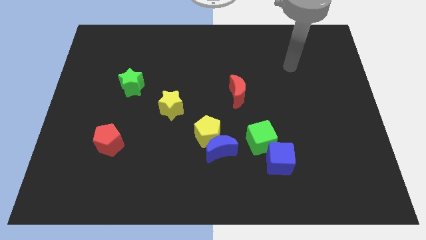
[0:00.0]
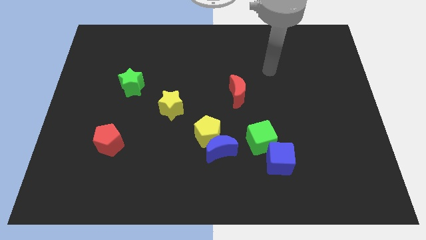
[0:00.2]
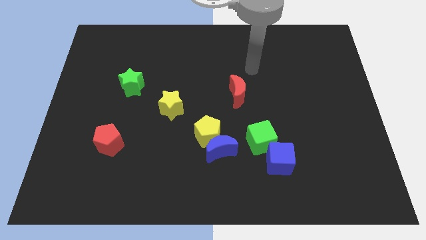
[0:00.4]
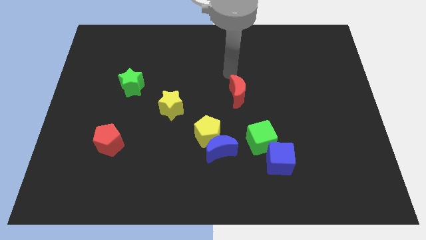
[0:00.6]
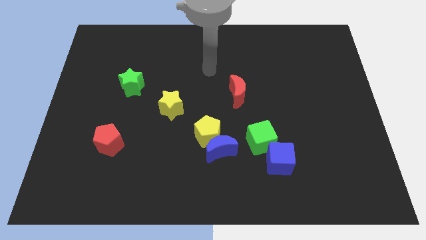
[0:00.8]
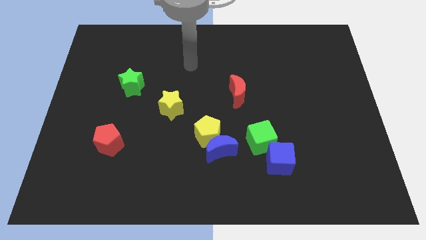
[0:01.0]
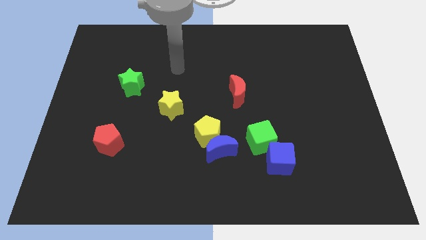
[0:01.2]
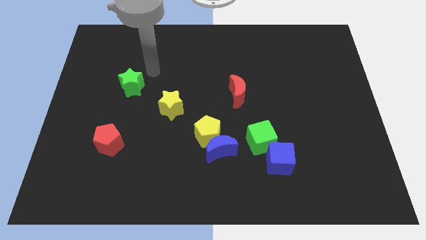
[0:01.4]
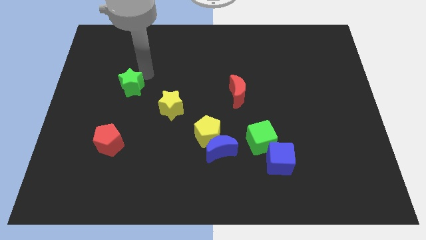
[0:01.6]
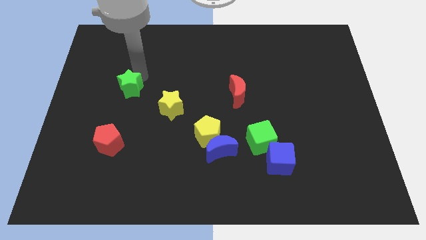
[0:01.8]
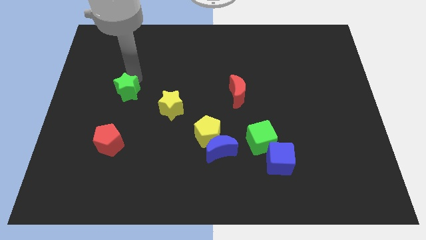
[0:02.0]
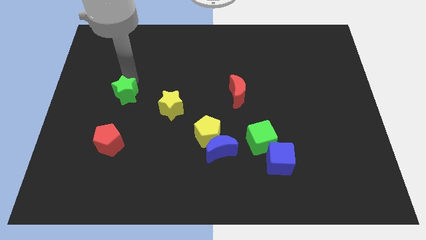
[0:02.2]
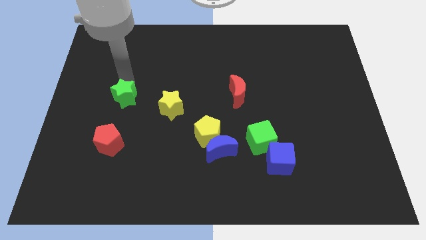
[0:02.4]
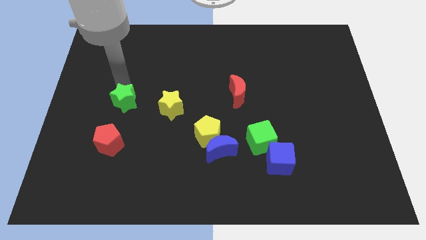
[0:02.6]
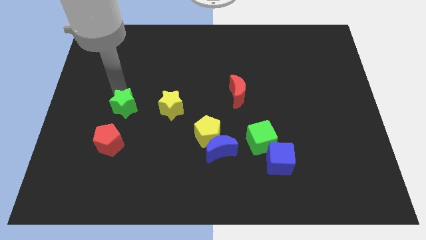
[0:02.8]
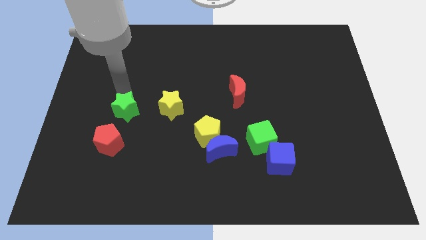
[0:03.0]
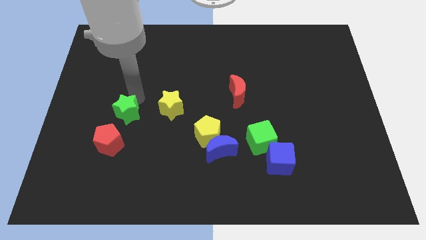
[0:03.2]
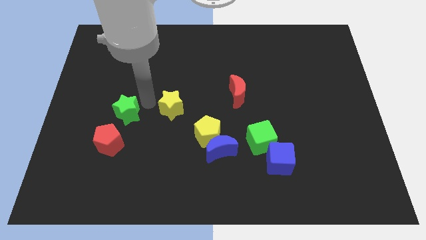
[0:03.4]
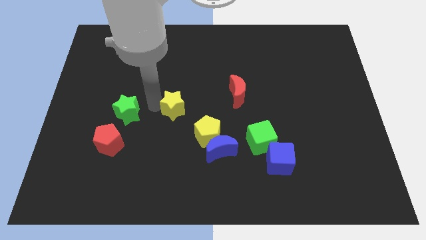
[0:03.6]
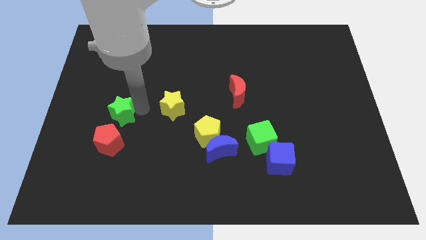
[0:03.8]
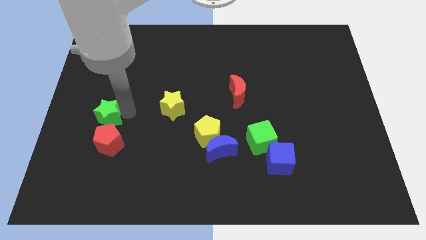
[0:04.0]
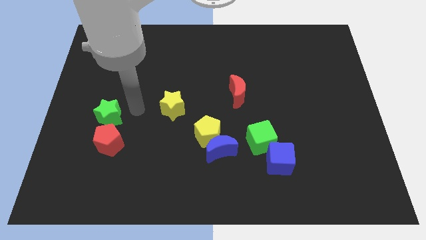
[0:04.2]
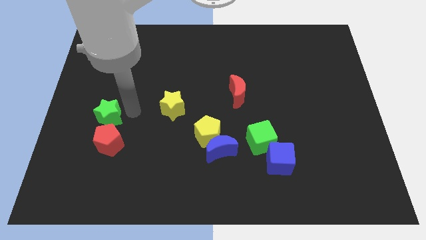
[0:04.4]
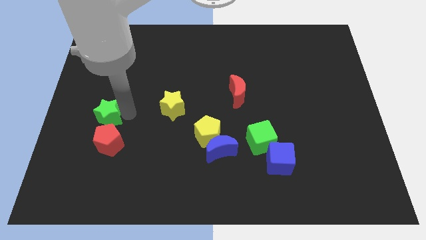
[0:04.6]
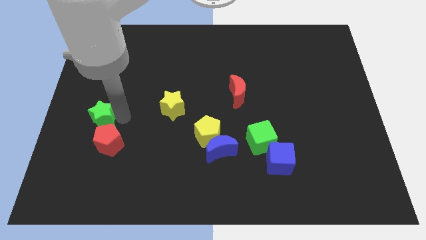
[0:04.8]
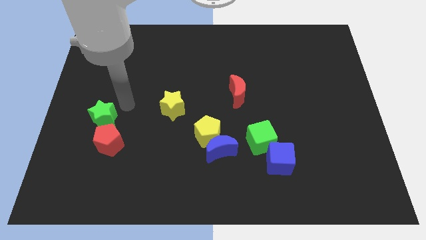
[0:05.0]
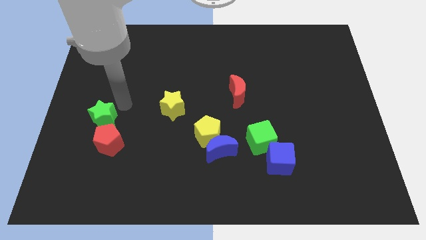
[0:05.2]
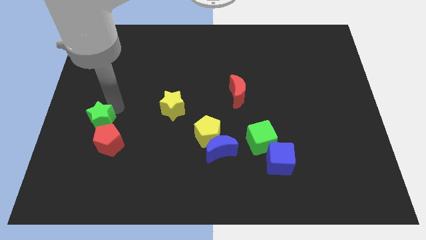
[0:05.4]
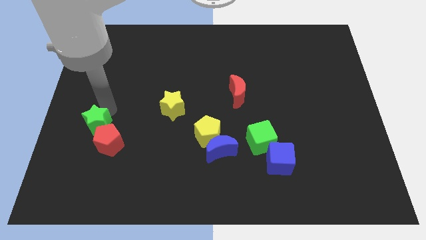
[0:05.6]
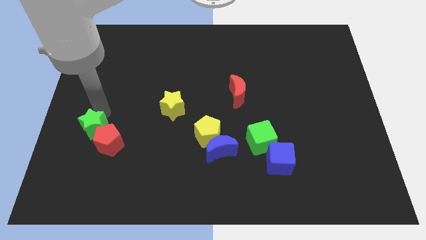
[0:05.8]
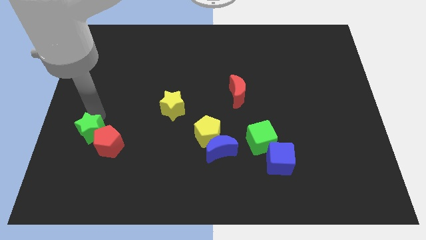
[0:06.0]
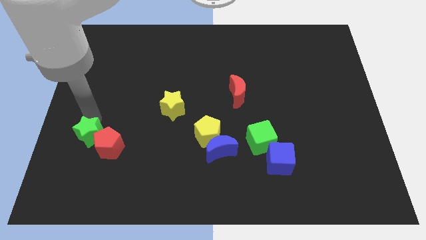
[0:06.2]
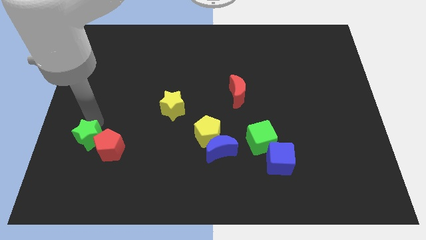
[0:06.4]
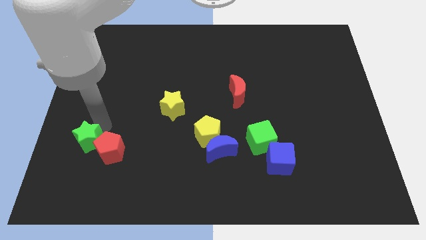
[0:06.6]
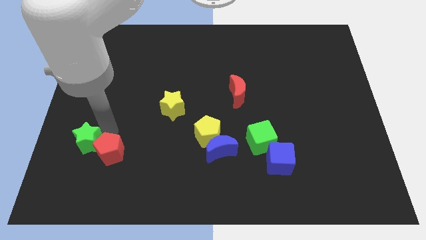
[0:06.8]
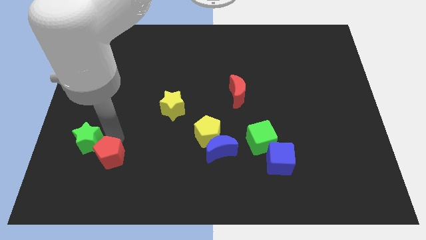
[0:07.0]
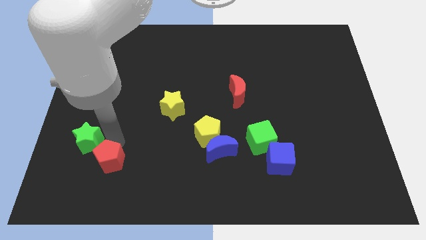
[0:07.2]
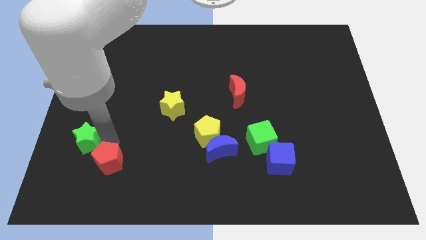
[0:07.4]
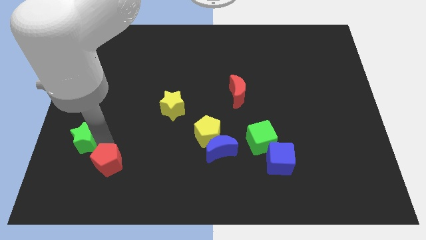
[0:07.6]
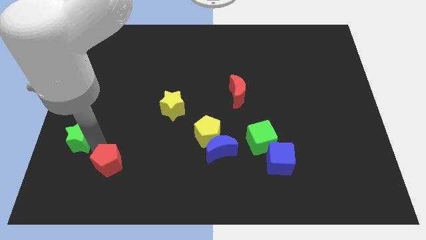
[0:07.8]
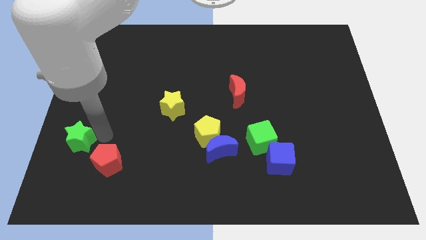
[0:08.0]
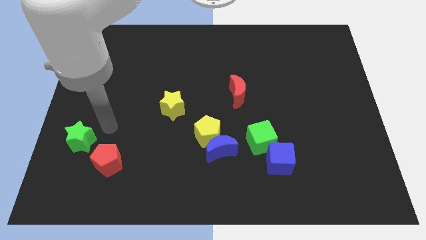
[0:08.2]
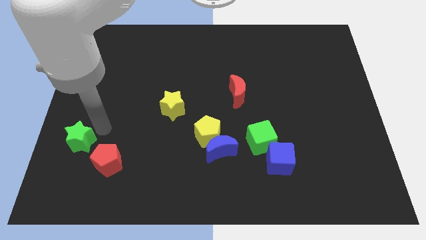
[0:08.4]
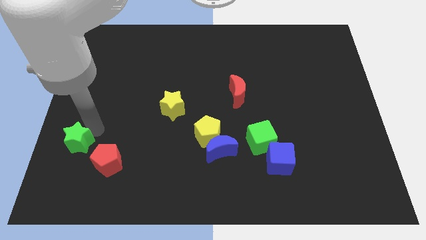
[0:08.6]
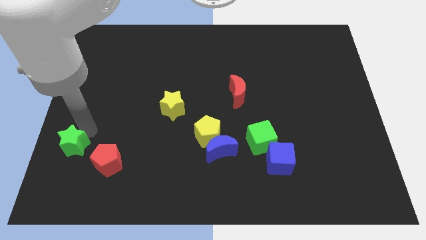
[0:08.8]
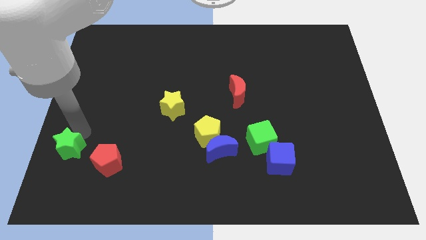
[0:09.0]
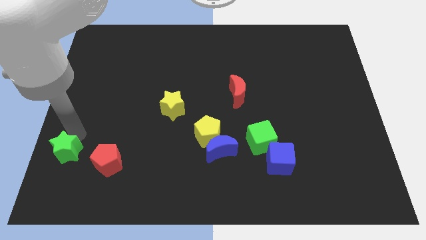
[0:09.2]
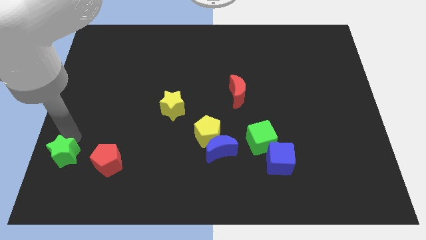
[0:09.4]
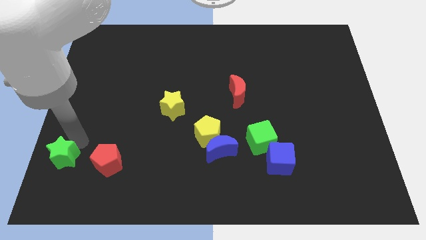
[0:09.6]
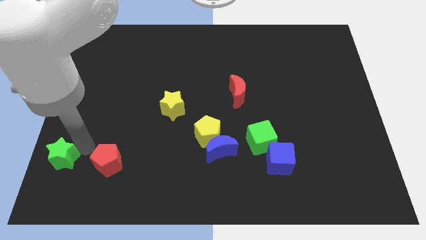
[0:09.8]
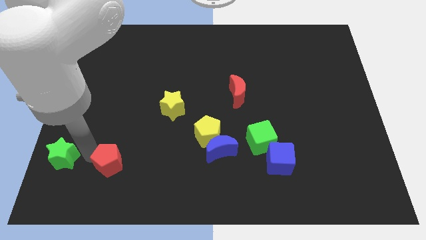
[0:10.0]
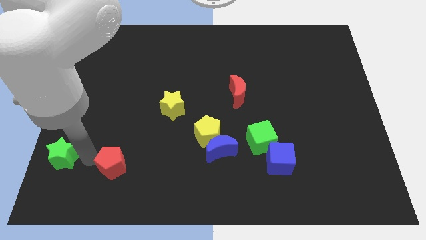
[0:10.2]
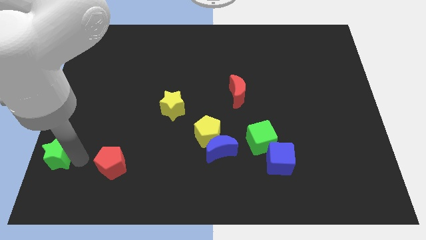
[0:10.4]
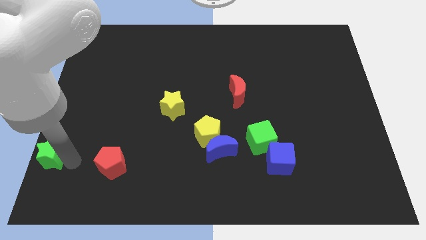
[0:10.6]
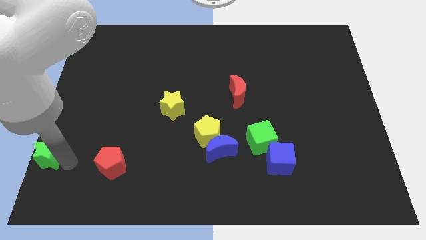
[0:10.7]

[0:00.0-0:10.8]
put the green star to the bottom left corner
